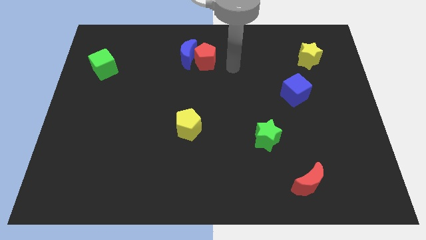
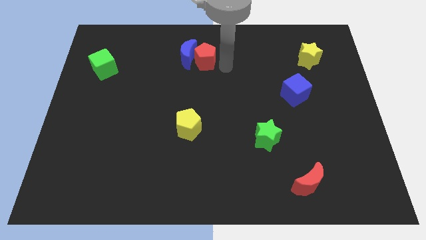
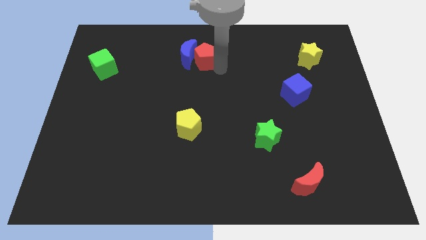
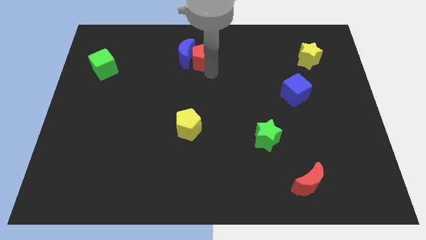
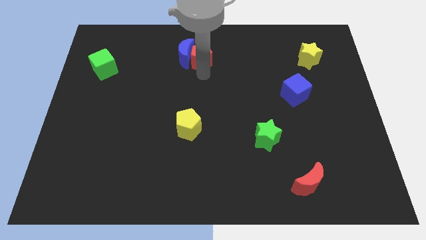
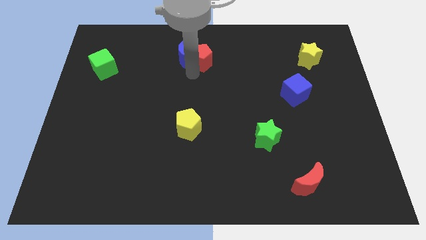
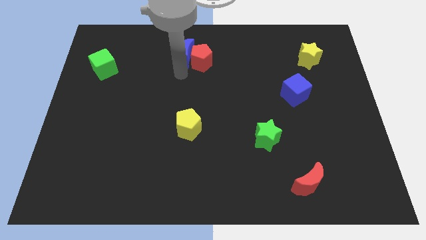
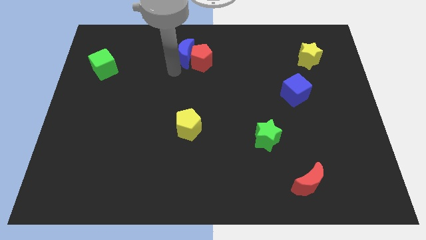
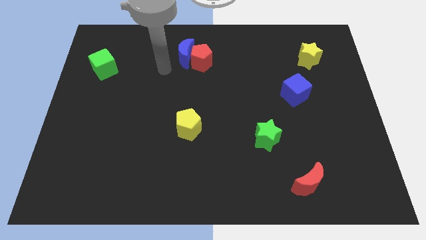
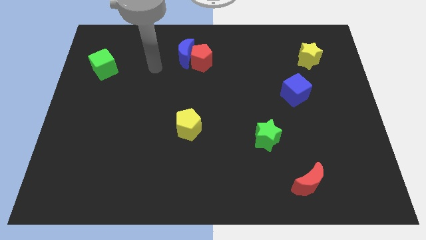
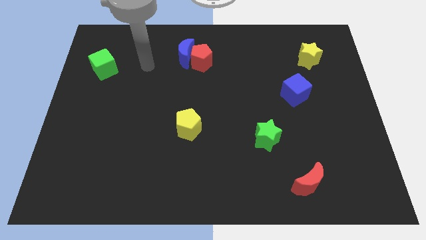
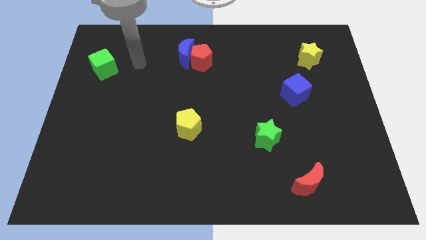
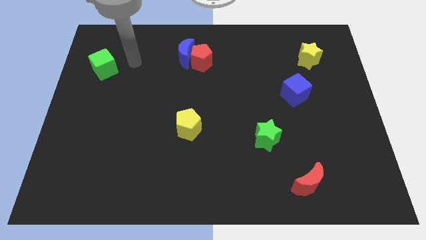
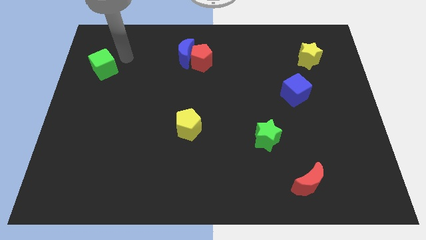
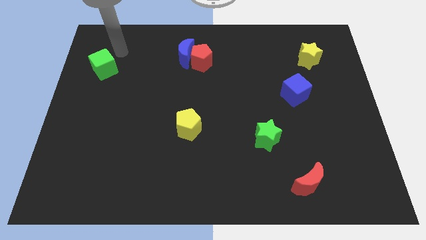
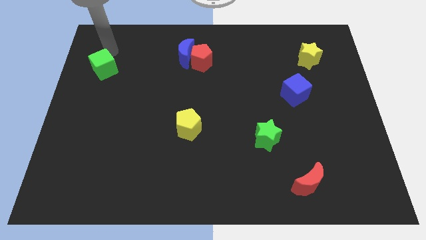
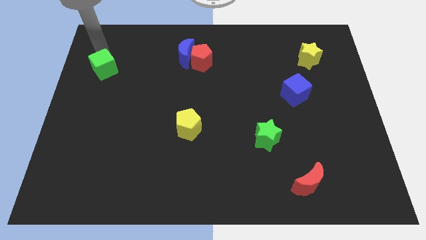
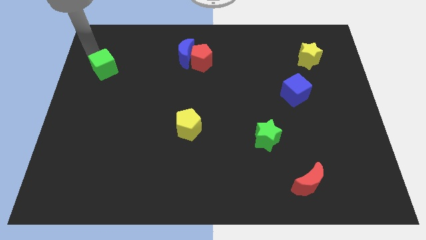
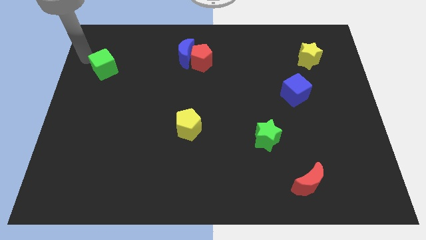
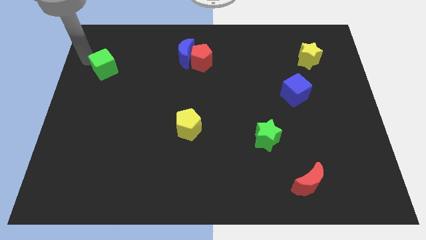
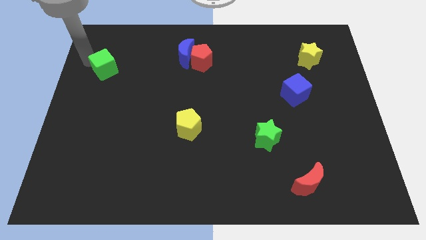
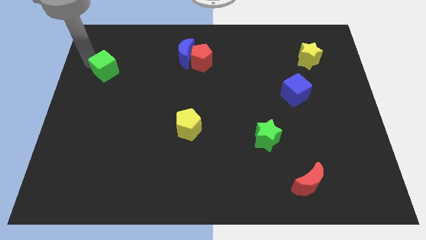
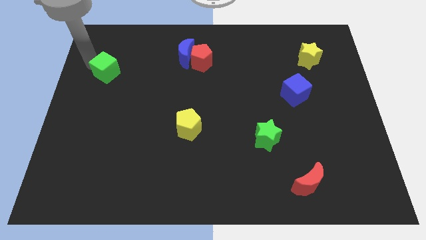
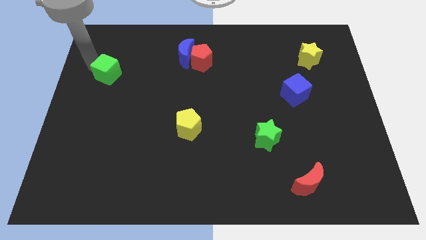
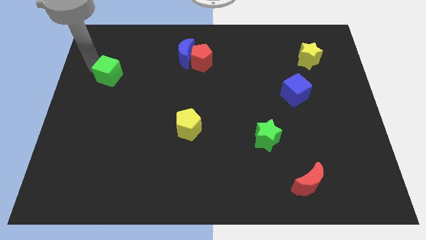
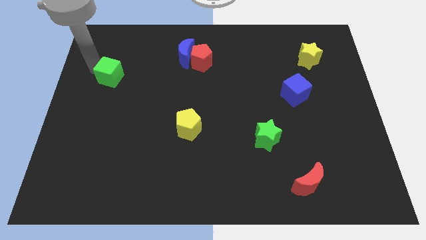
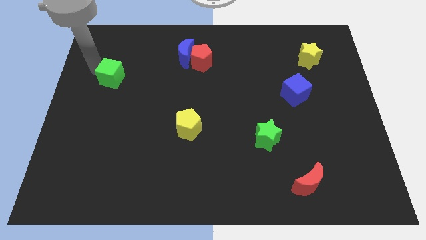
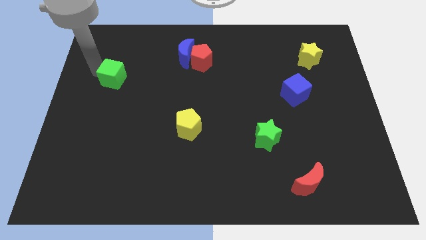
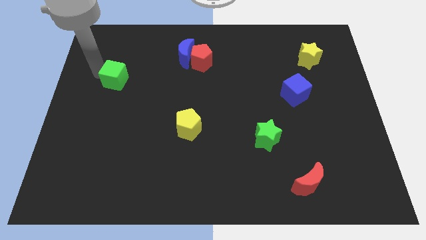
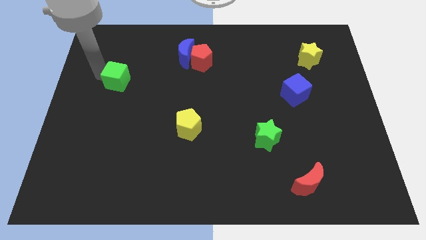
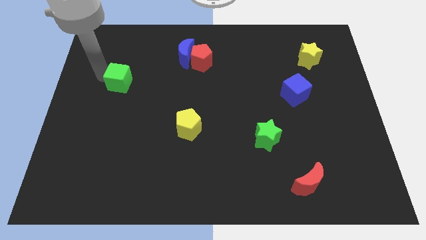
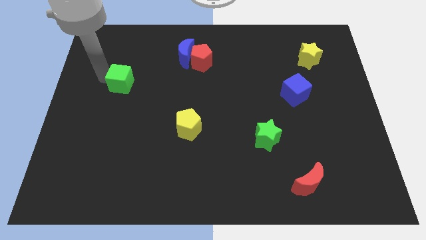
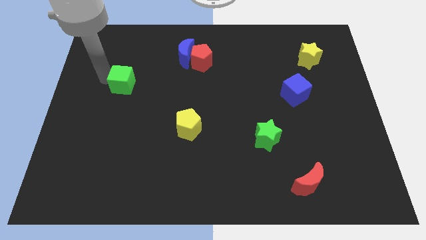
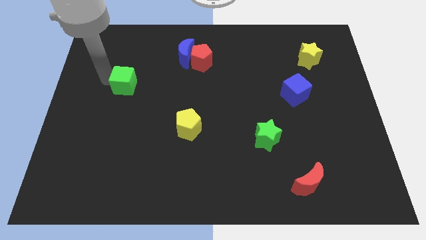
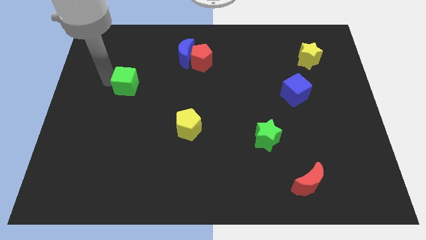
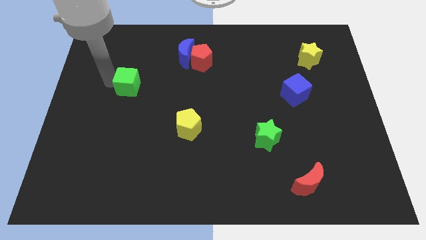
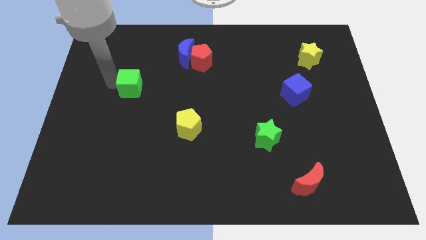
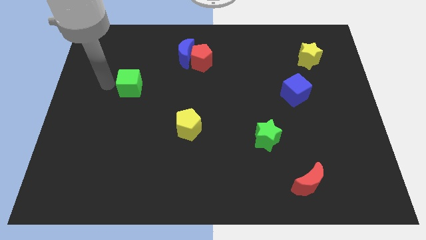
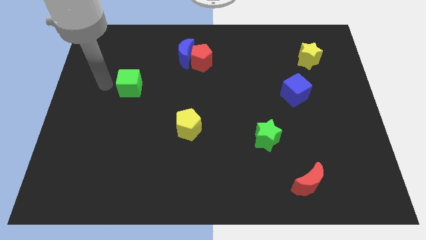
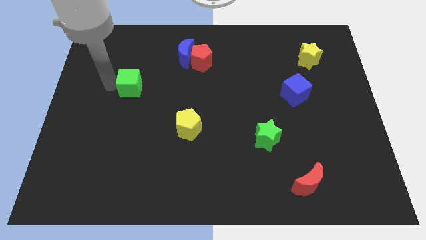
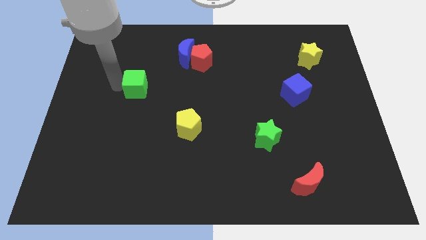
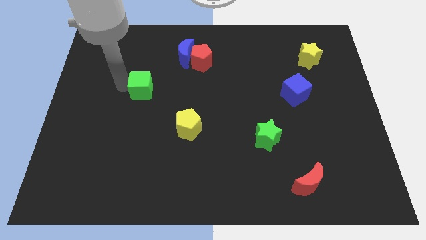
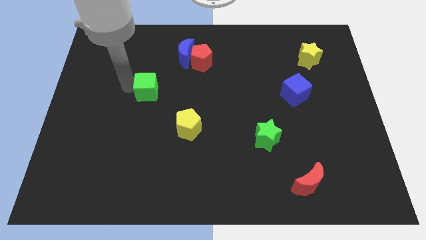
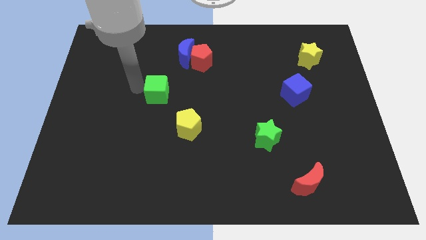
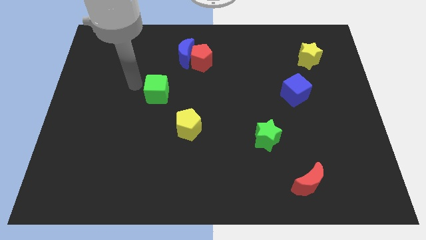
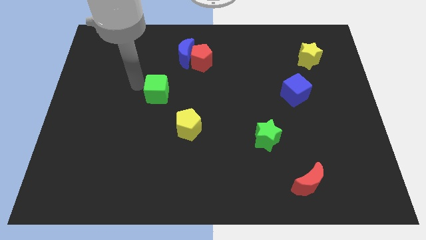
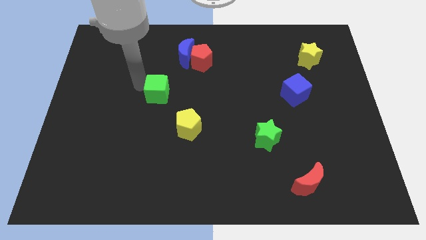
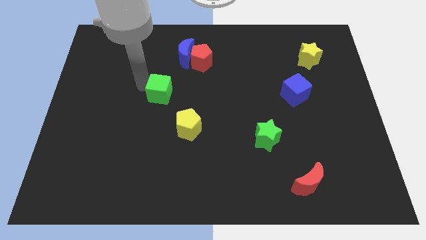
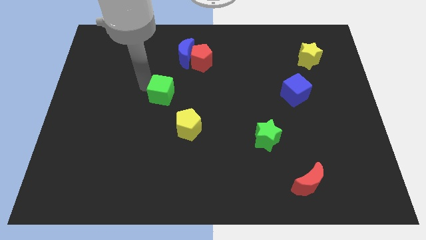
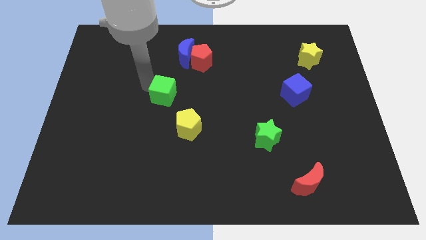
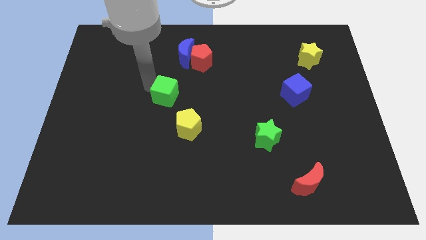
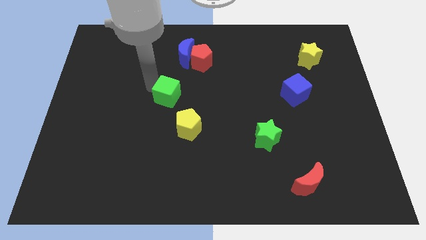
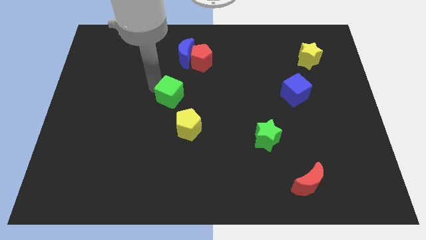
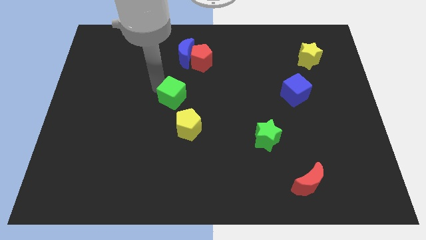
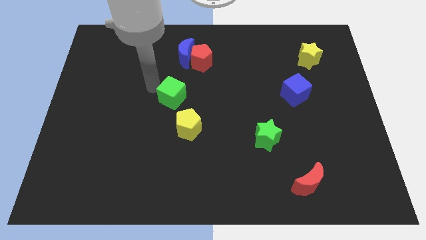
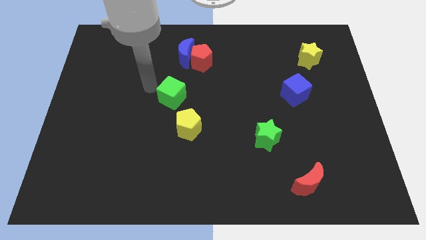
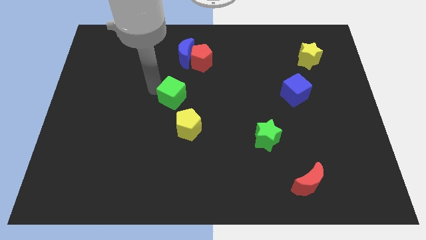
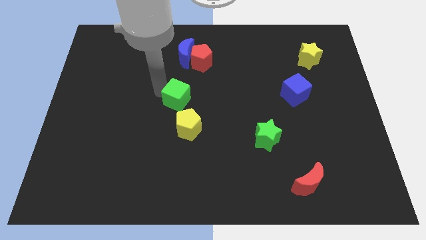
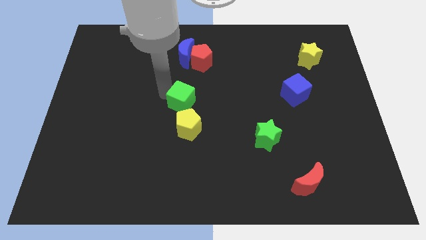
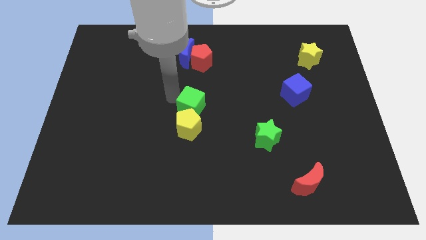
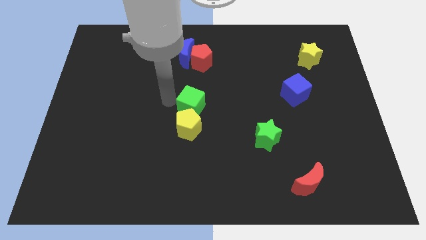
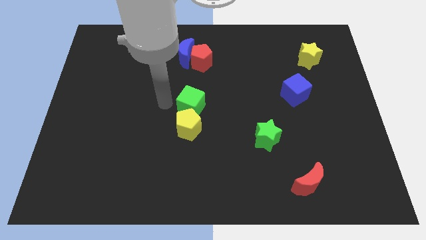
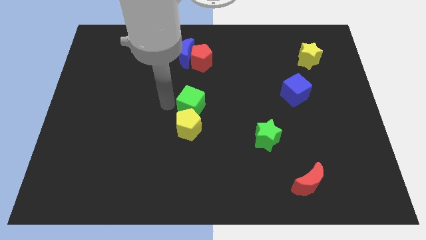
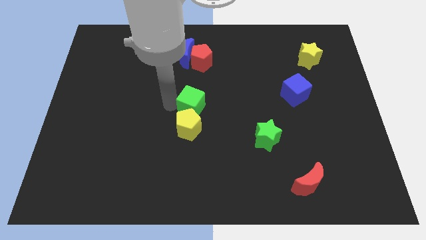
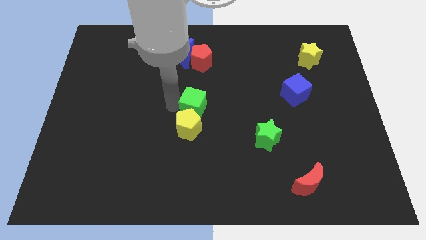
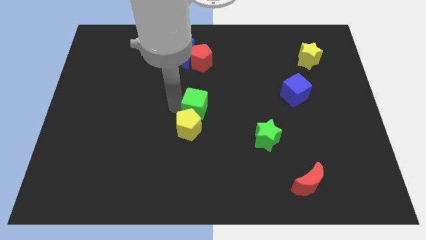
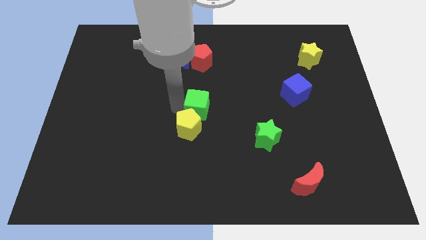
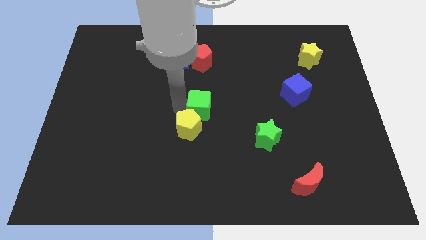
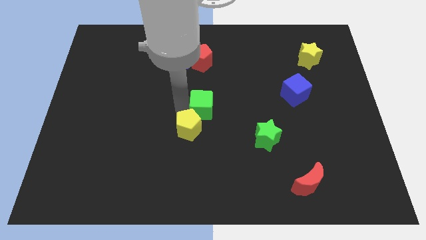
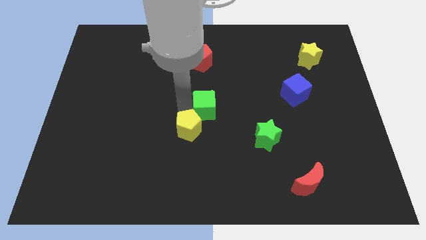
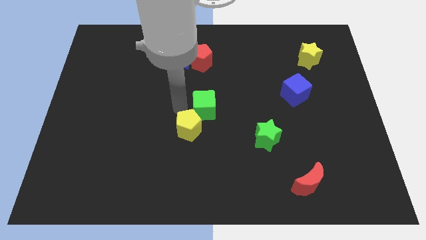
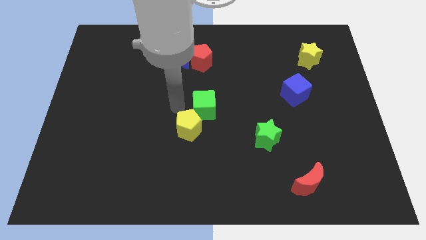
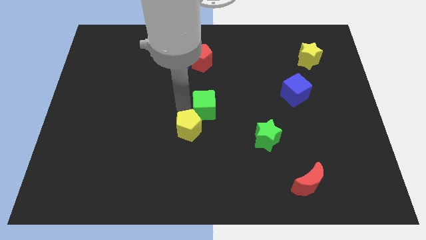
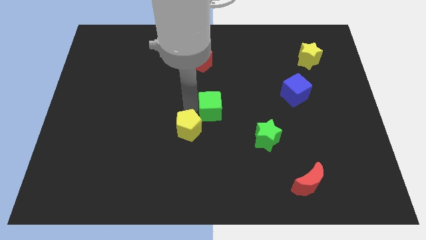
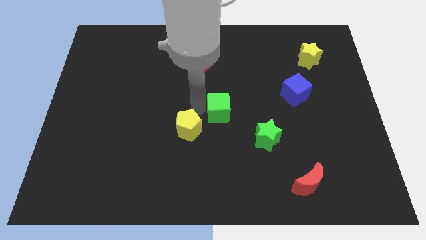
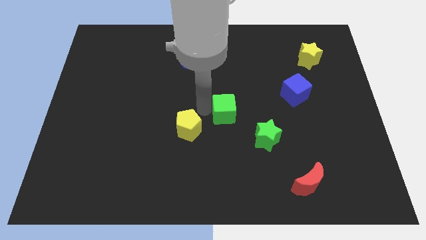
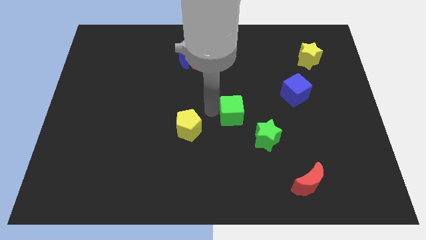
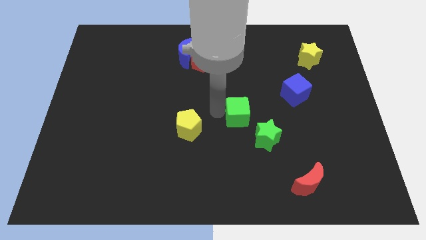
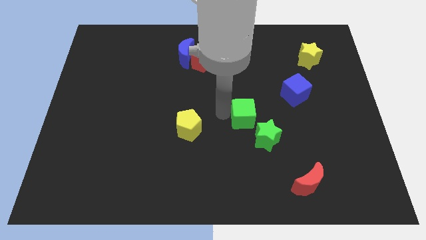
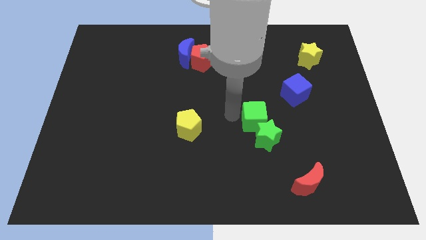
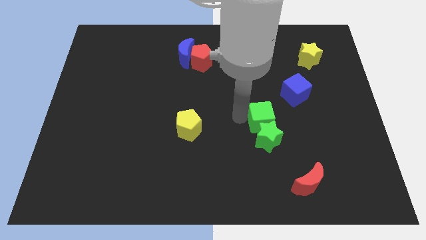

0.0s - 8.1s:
push the green cube to the top right of the green star
